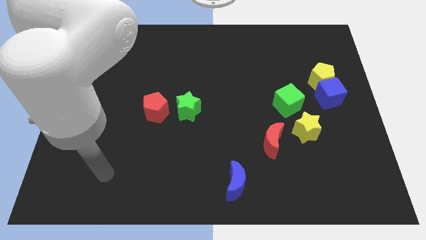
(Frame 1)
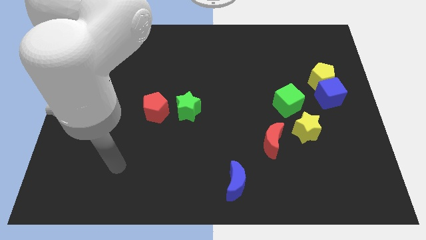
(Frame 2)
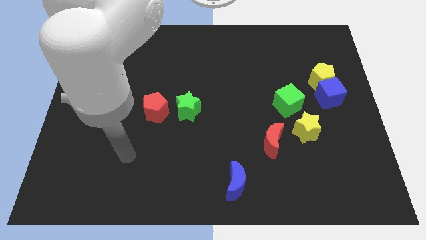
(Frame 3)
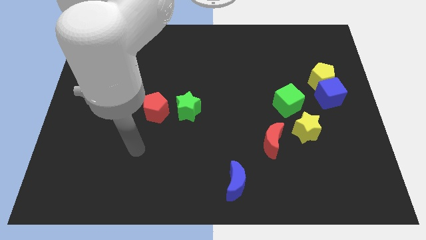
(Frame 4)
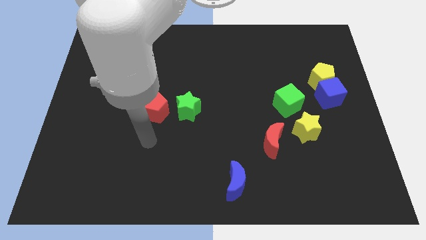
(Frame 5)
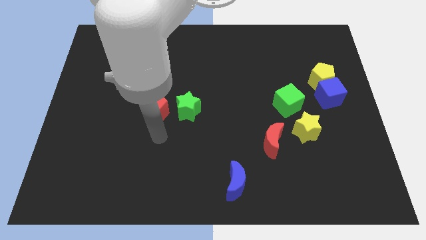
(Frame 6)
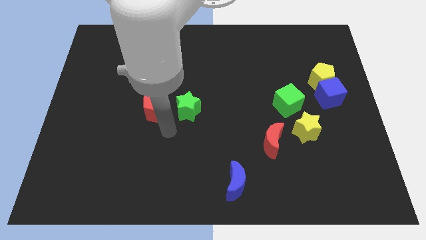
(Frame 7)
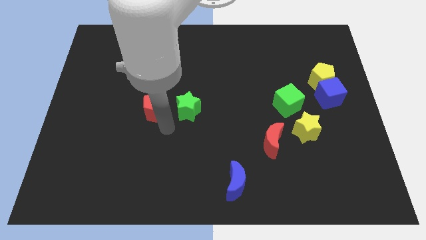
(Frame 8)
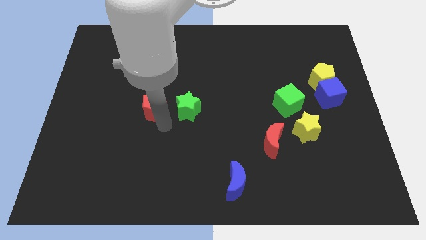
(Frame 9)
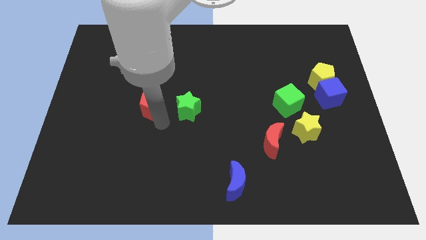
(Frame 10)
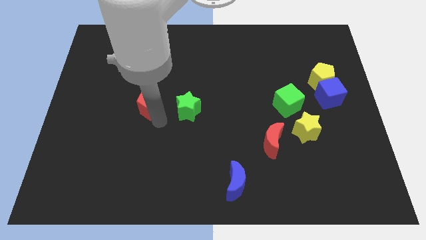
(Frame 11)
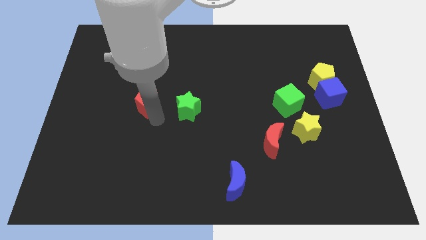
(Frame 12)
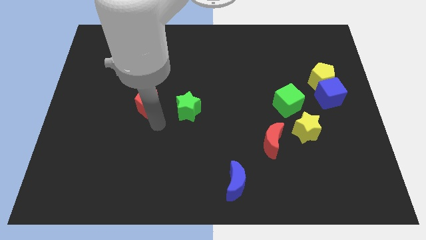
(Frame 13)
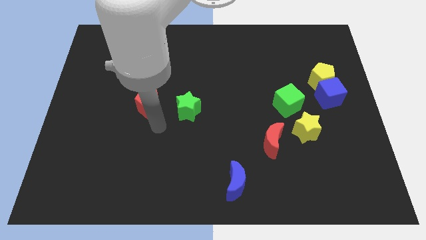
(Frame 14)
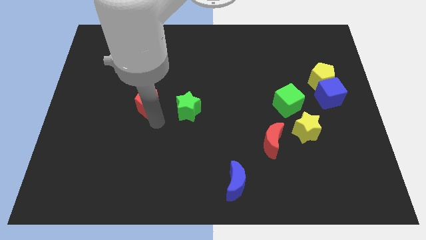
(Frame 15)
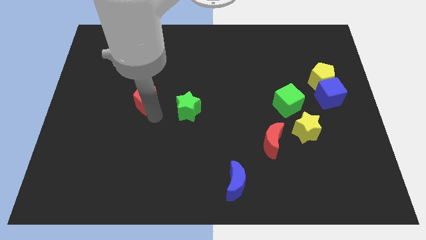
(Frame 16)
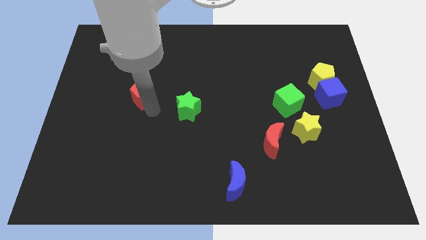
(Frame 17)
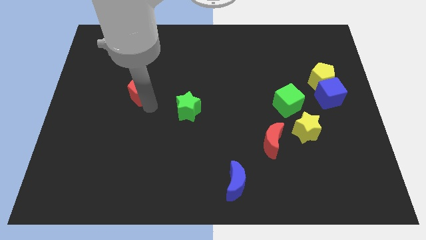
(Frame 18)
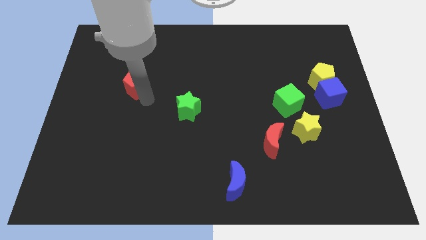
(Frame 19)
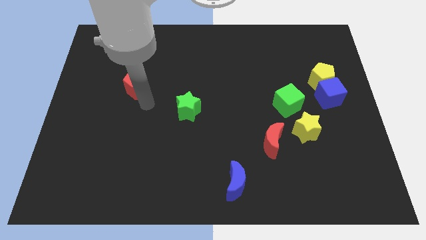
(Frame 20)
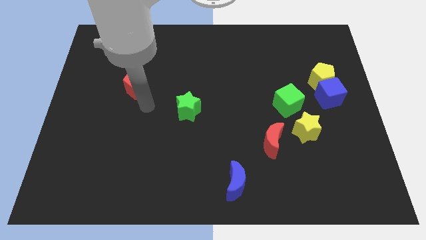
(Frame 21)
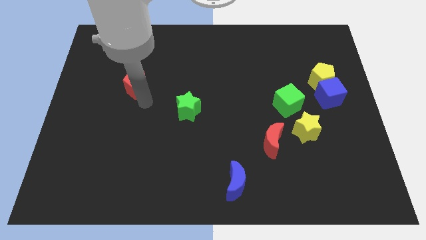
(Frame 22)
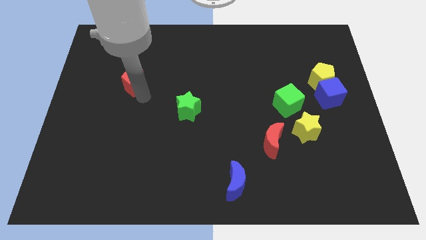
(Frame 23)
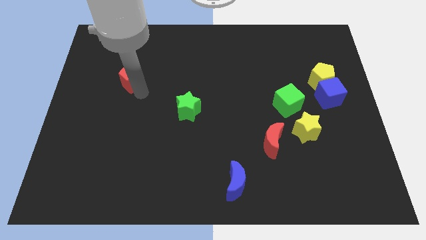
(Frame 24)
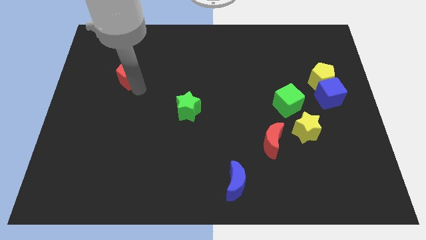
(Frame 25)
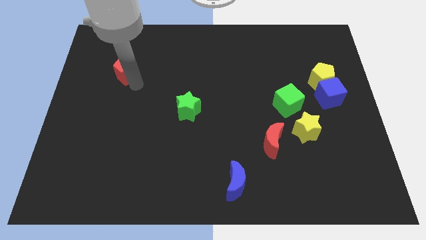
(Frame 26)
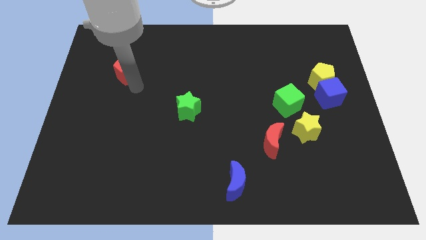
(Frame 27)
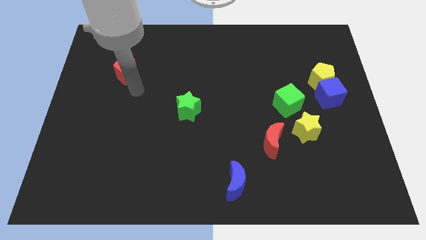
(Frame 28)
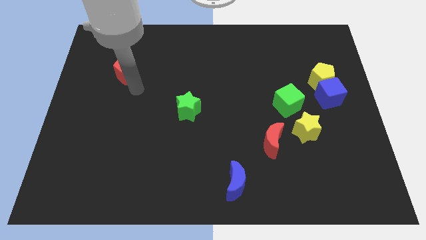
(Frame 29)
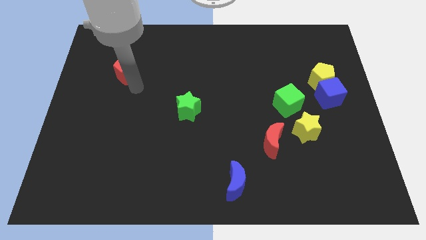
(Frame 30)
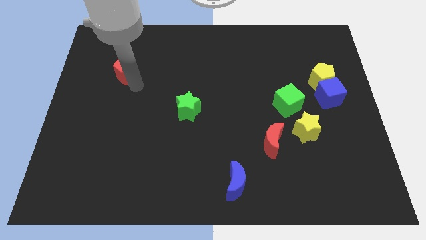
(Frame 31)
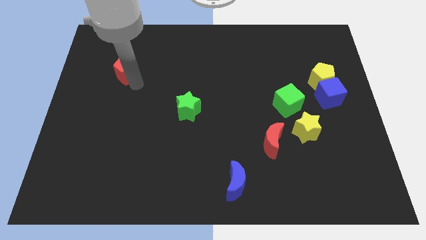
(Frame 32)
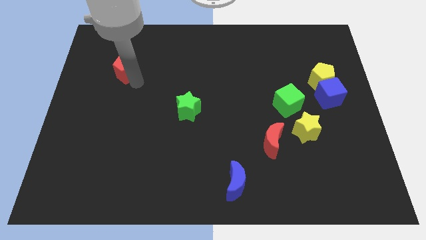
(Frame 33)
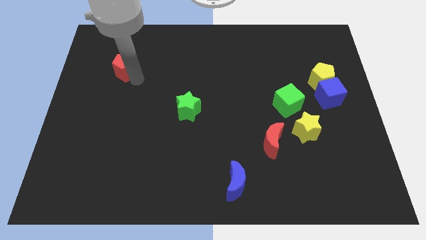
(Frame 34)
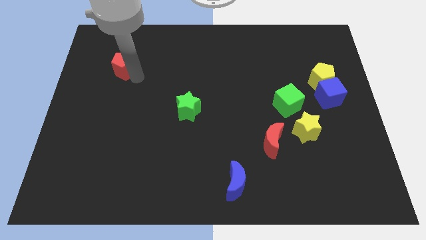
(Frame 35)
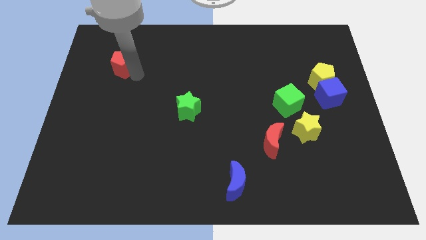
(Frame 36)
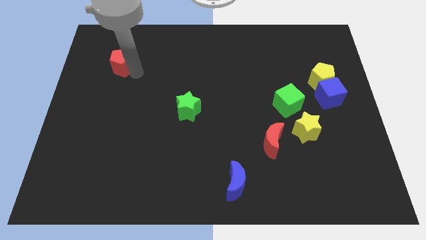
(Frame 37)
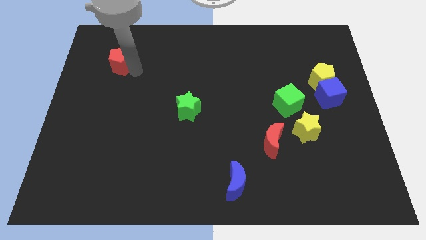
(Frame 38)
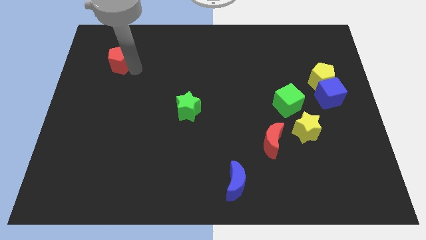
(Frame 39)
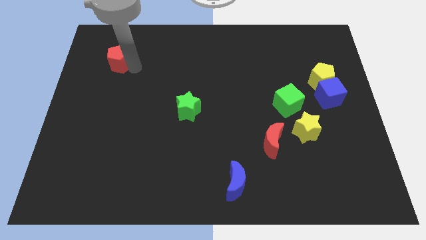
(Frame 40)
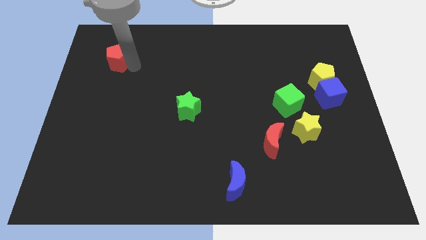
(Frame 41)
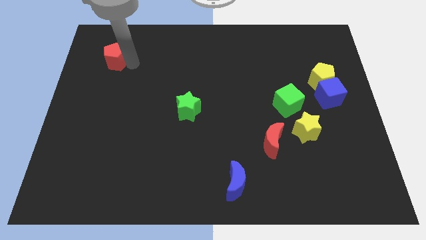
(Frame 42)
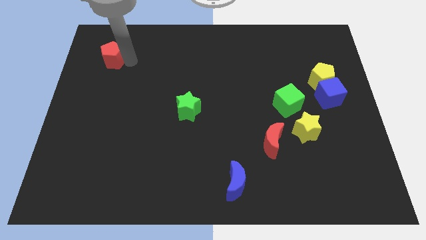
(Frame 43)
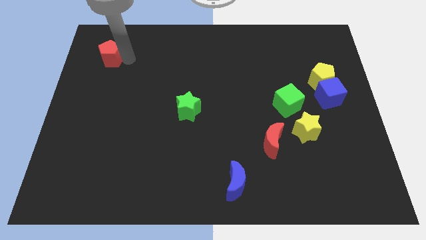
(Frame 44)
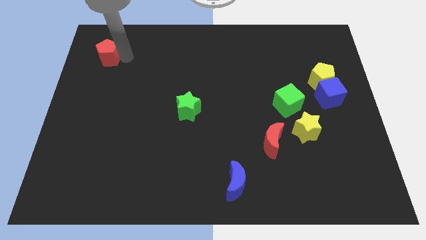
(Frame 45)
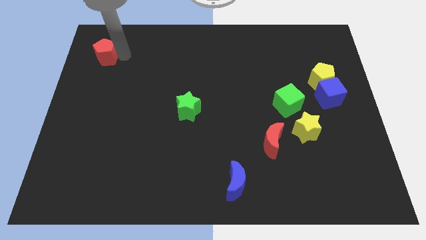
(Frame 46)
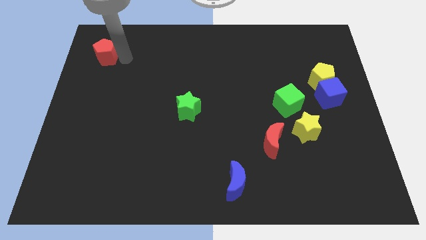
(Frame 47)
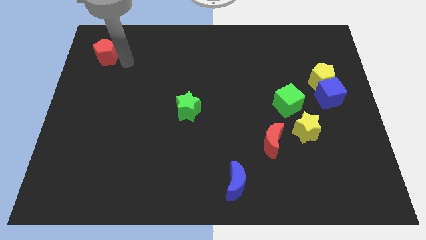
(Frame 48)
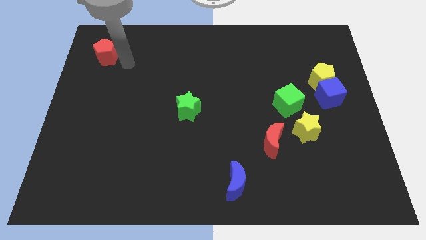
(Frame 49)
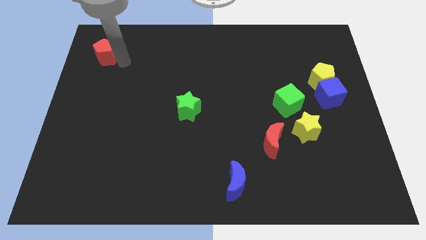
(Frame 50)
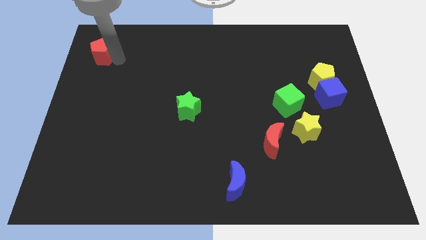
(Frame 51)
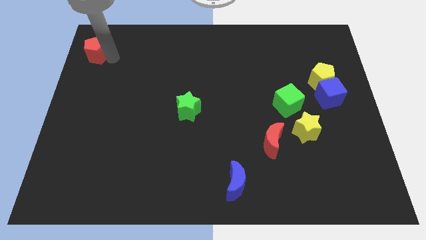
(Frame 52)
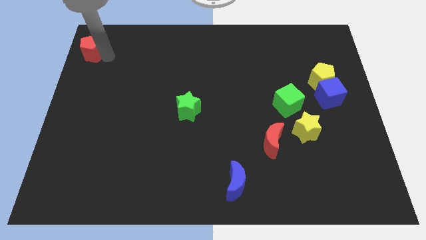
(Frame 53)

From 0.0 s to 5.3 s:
put the red pentagon to the top left corner

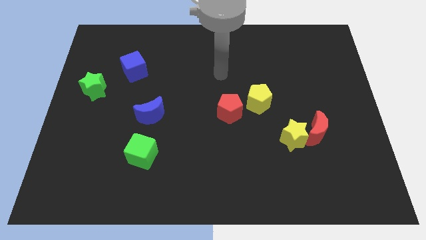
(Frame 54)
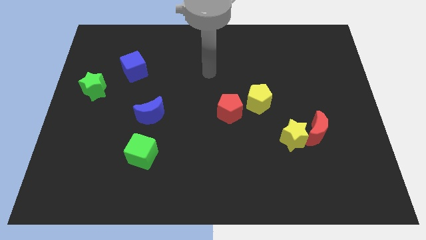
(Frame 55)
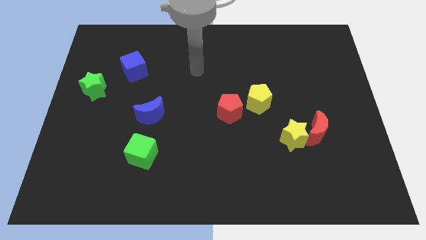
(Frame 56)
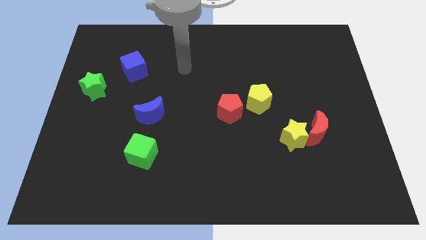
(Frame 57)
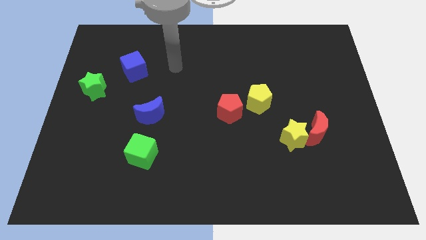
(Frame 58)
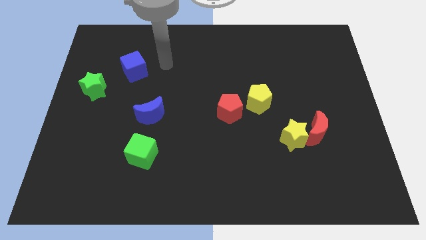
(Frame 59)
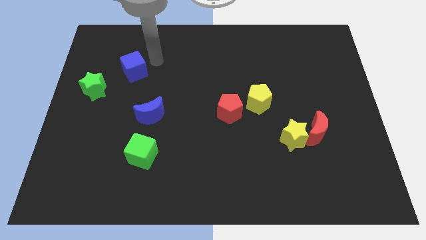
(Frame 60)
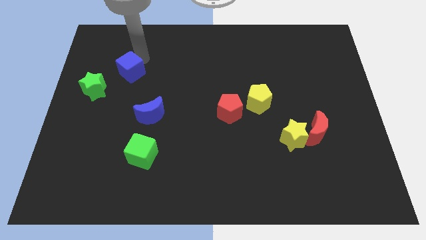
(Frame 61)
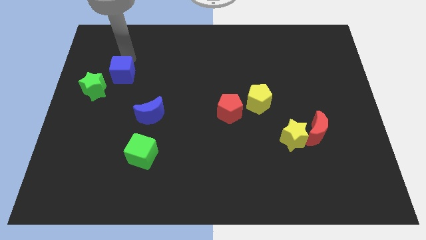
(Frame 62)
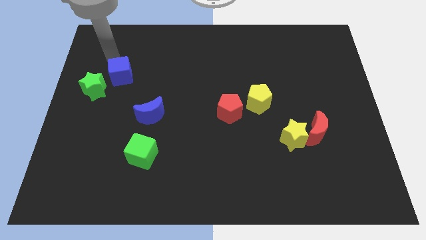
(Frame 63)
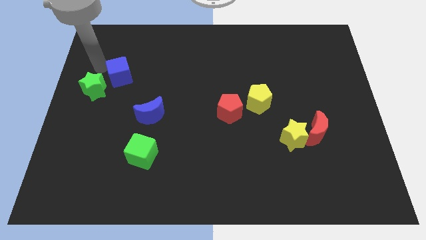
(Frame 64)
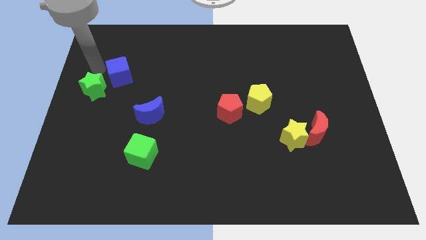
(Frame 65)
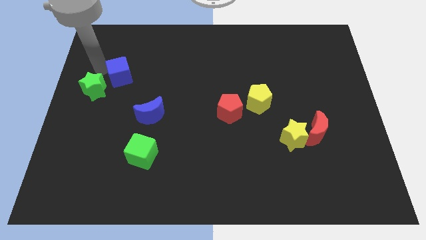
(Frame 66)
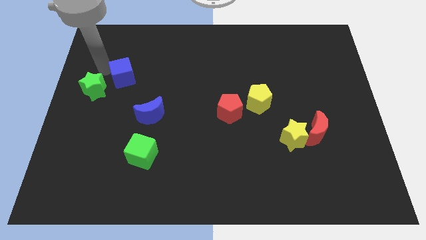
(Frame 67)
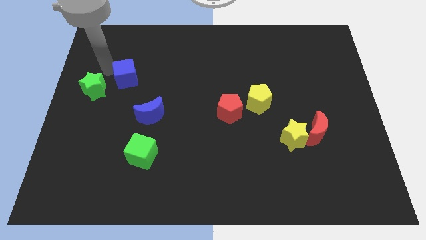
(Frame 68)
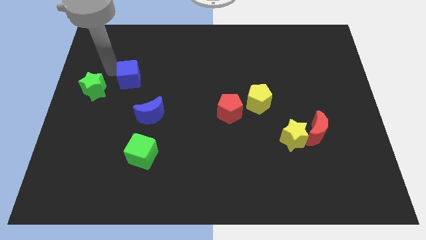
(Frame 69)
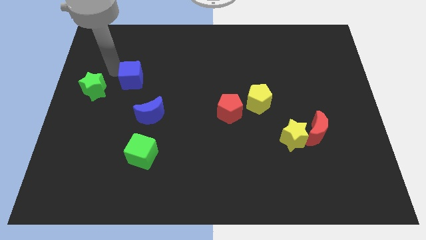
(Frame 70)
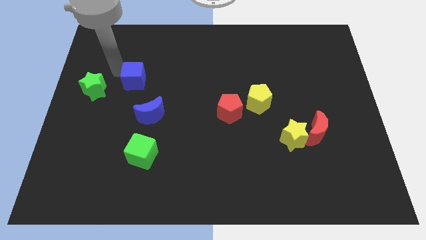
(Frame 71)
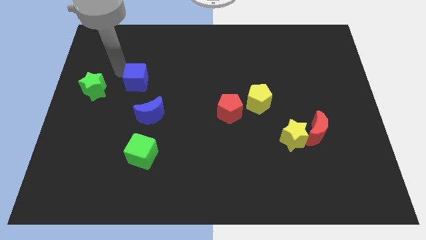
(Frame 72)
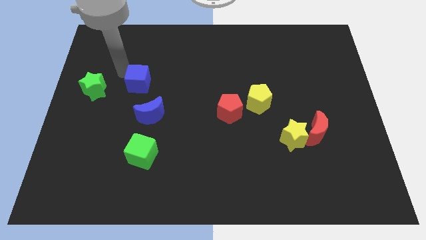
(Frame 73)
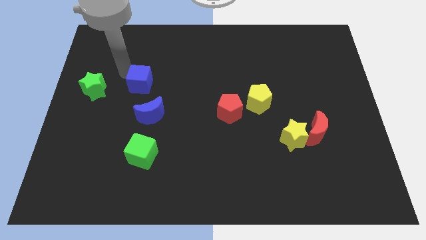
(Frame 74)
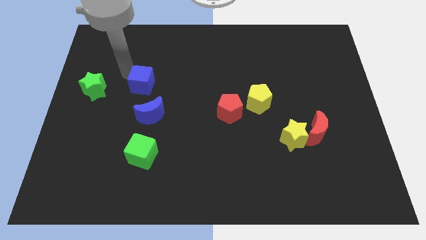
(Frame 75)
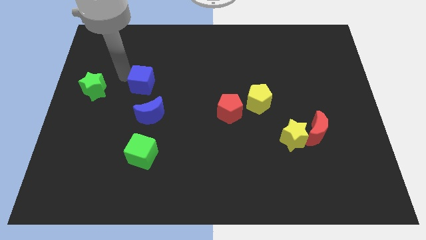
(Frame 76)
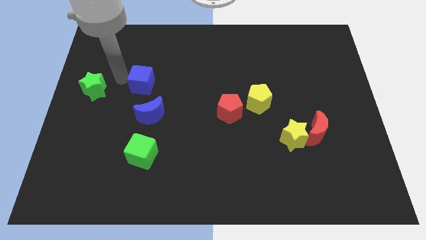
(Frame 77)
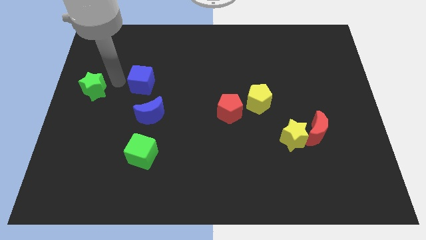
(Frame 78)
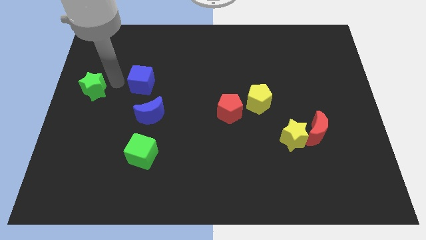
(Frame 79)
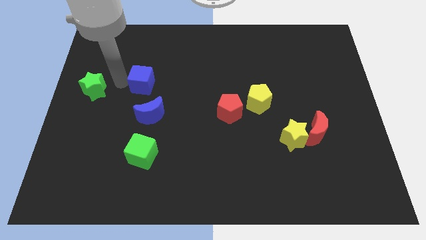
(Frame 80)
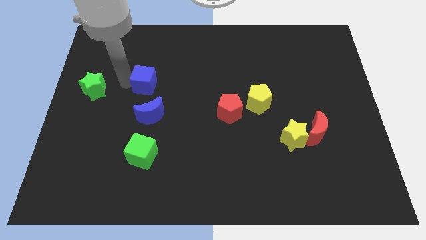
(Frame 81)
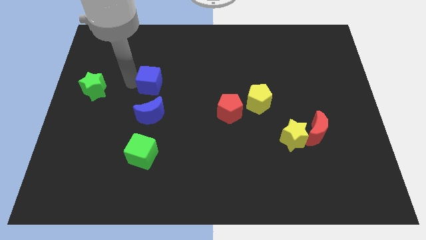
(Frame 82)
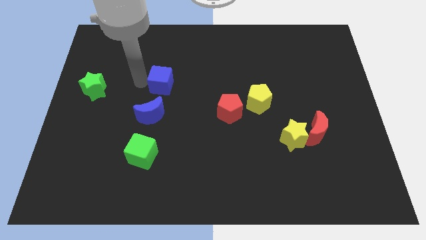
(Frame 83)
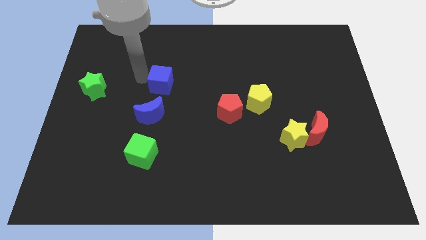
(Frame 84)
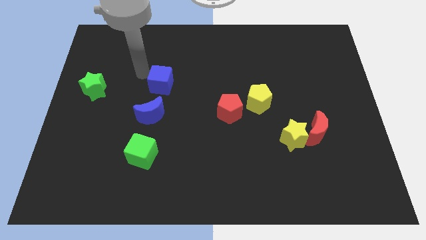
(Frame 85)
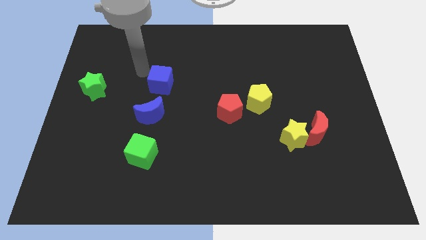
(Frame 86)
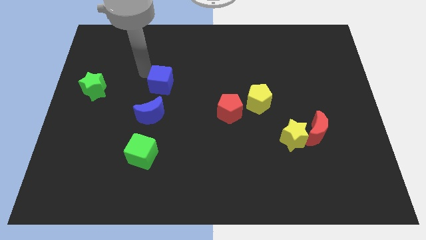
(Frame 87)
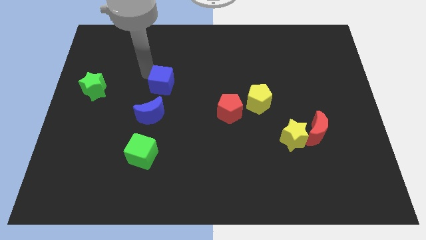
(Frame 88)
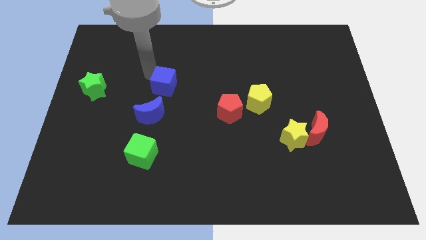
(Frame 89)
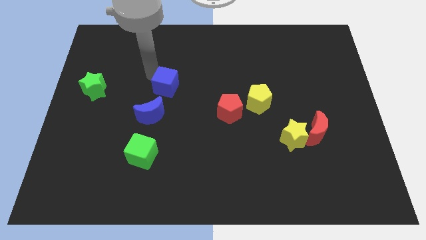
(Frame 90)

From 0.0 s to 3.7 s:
move the blue cube to the middle of the board
